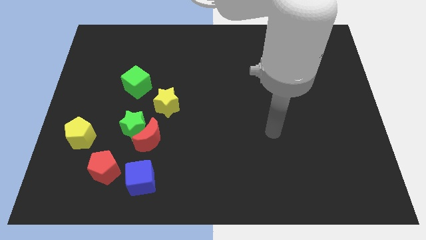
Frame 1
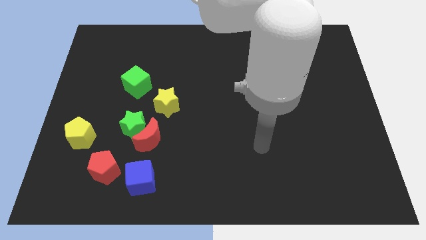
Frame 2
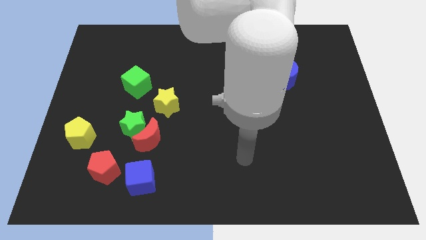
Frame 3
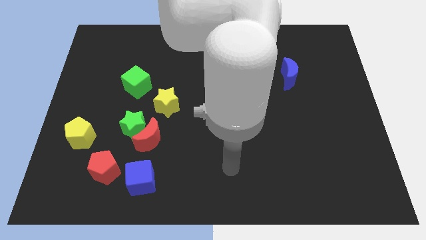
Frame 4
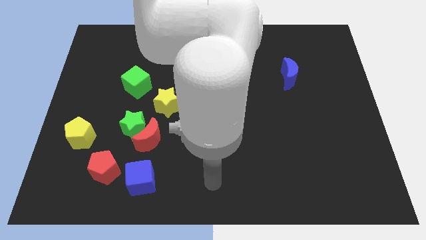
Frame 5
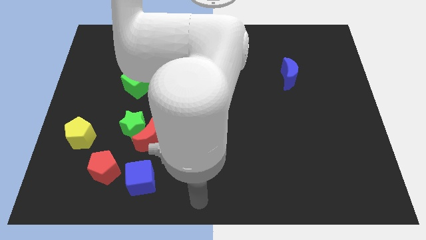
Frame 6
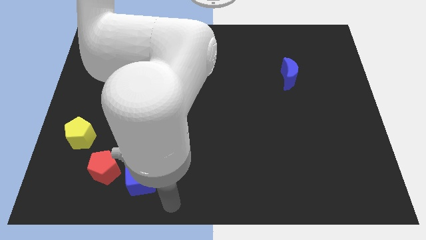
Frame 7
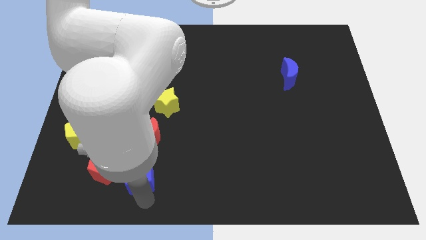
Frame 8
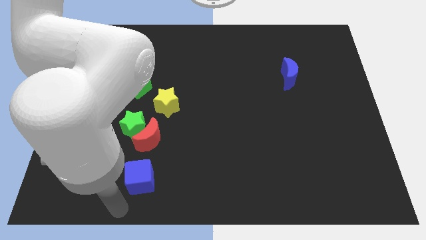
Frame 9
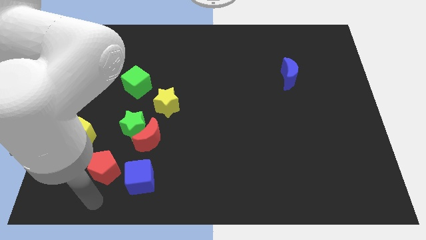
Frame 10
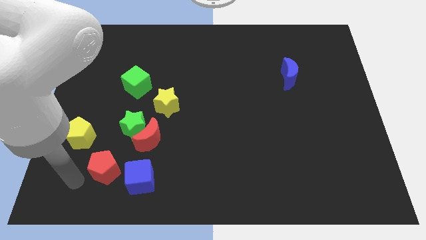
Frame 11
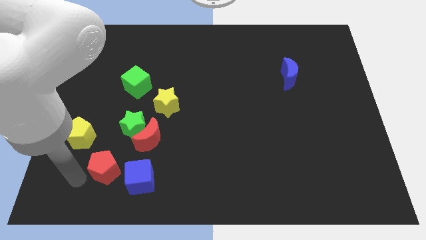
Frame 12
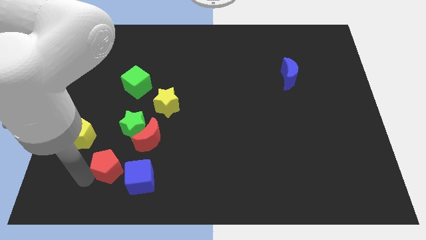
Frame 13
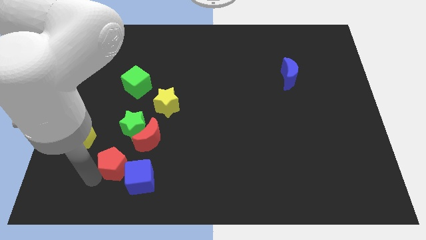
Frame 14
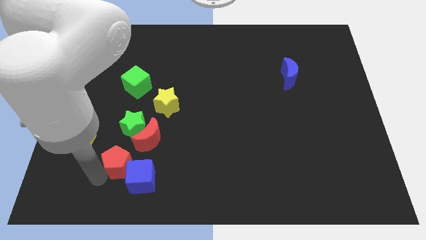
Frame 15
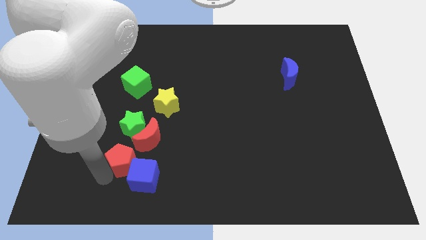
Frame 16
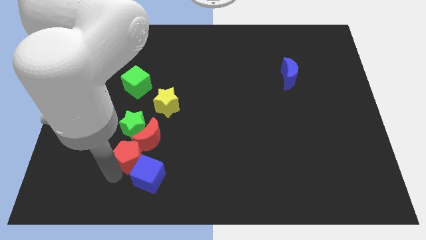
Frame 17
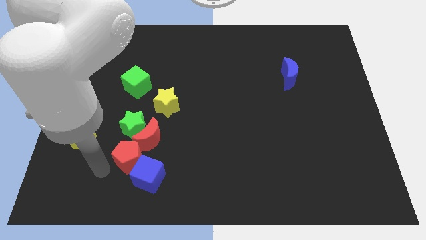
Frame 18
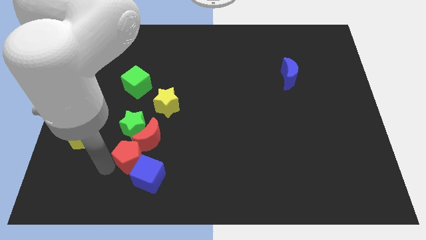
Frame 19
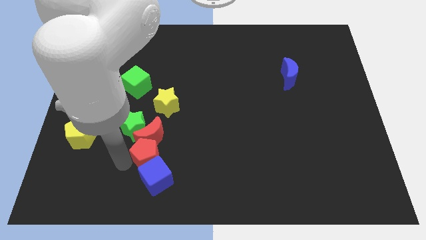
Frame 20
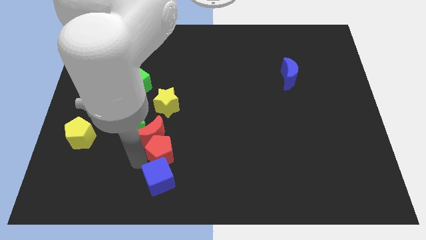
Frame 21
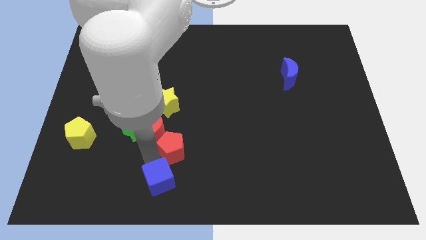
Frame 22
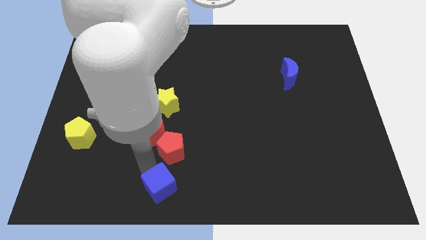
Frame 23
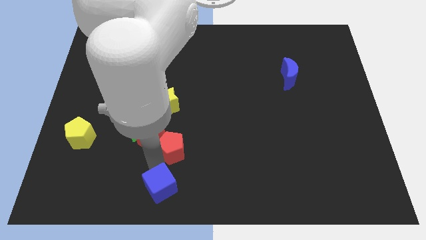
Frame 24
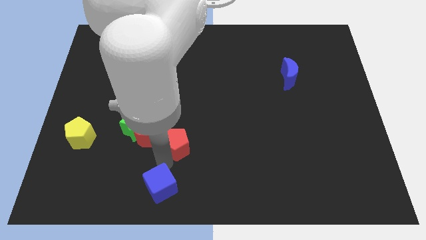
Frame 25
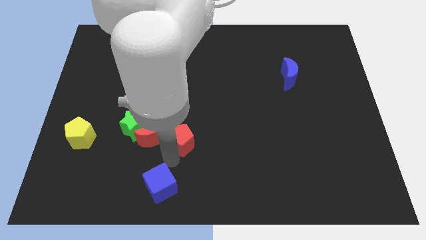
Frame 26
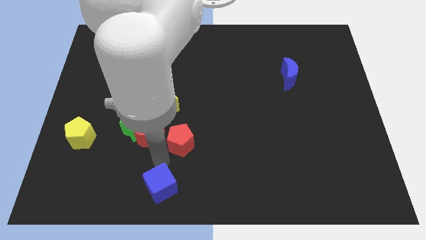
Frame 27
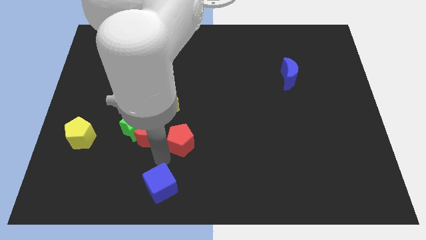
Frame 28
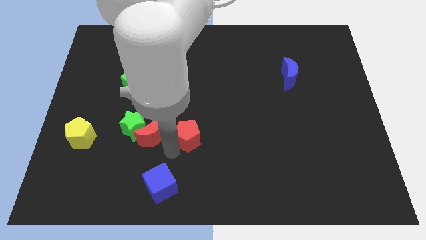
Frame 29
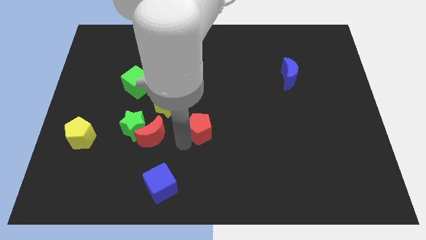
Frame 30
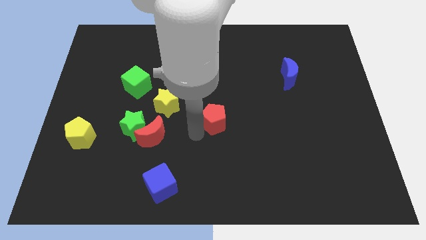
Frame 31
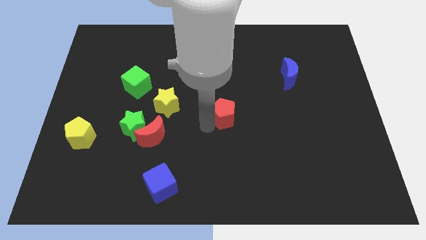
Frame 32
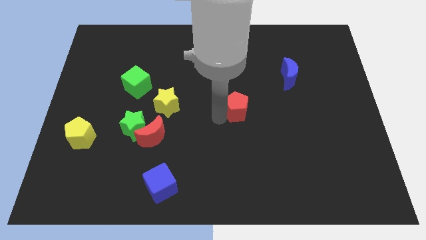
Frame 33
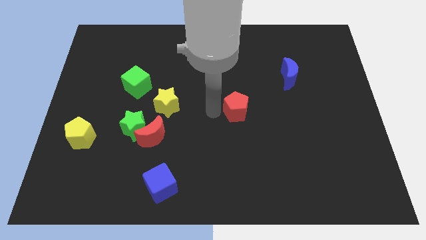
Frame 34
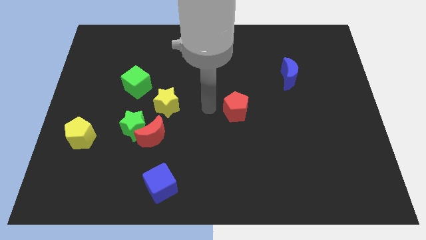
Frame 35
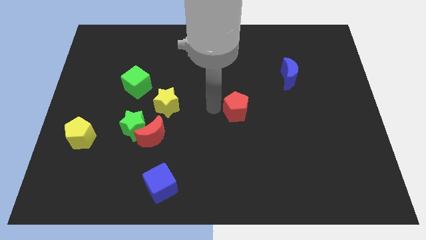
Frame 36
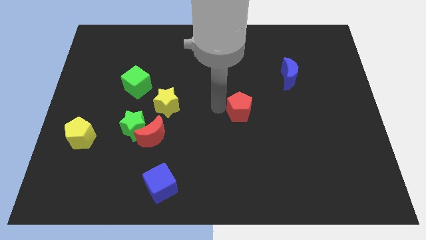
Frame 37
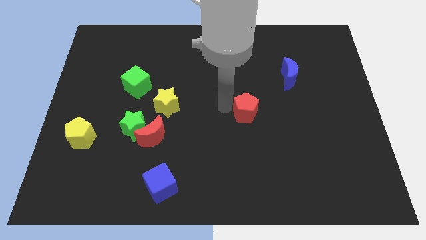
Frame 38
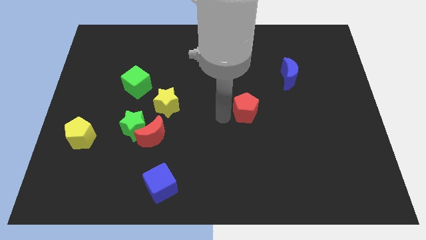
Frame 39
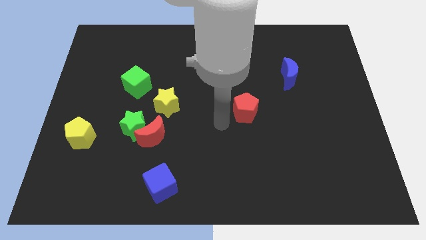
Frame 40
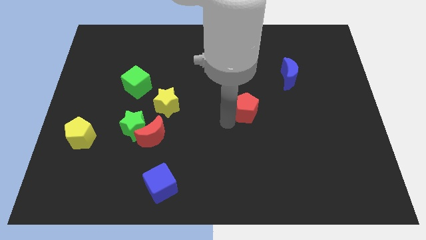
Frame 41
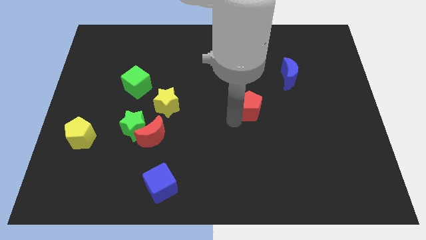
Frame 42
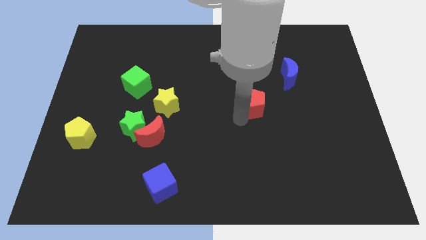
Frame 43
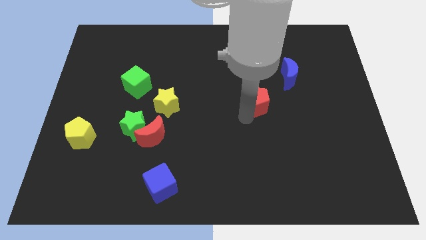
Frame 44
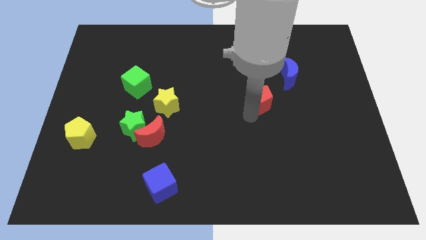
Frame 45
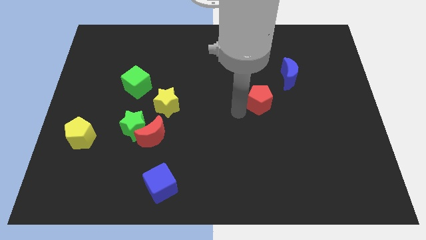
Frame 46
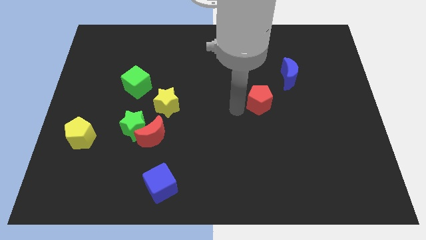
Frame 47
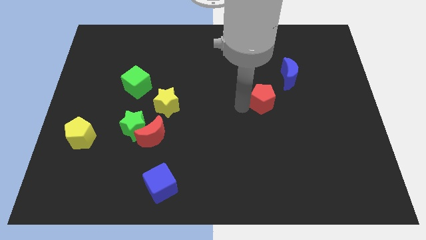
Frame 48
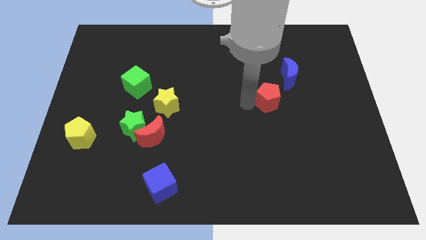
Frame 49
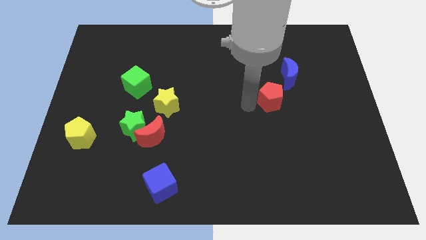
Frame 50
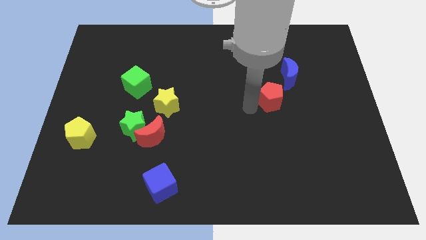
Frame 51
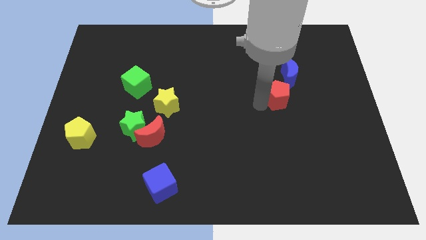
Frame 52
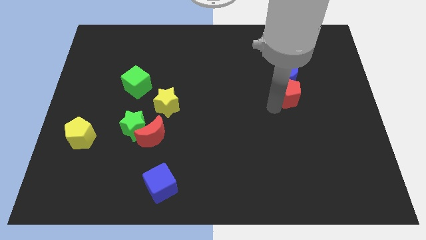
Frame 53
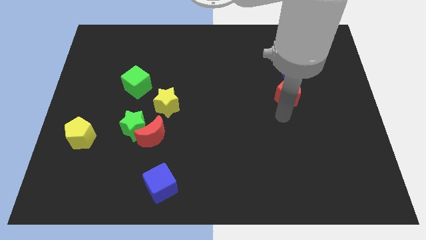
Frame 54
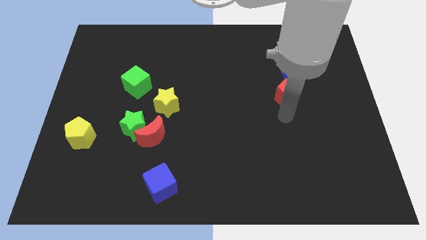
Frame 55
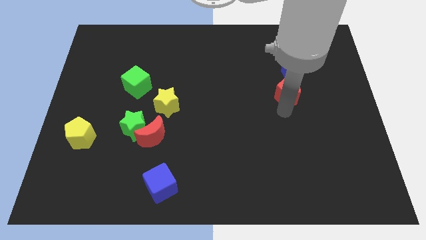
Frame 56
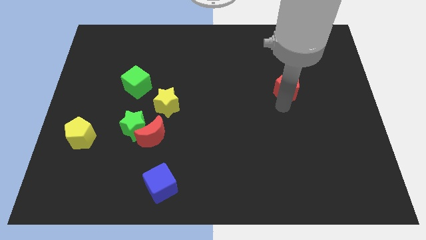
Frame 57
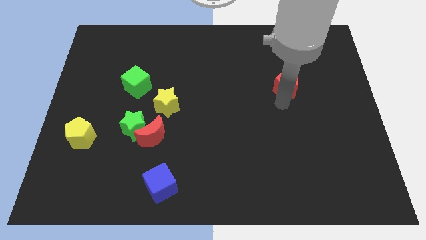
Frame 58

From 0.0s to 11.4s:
put the red pentagon towards the blue moon

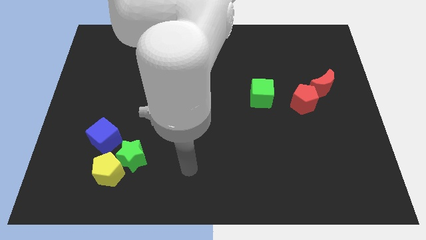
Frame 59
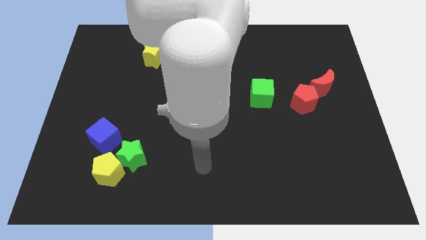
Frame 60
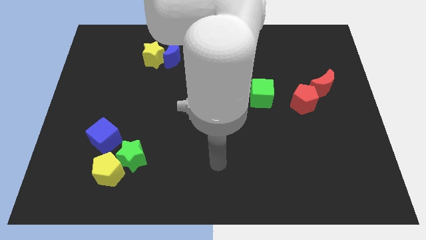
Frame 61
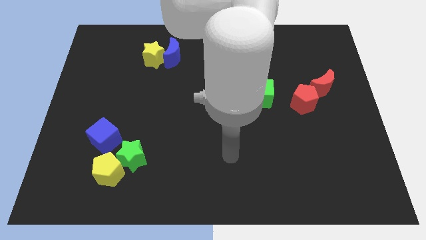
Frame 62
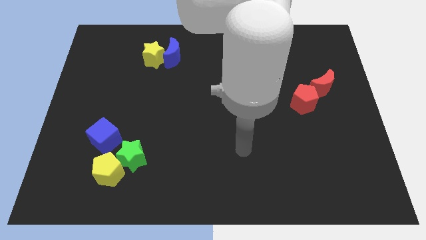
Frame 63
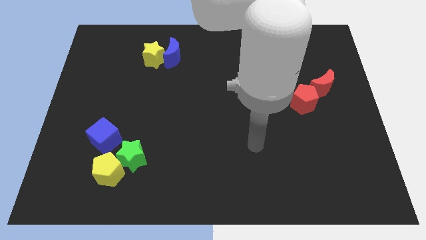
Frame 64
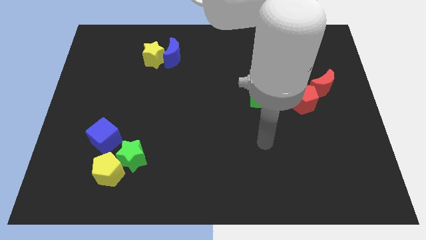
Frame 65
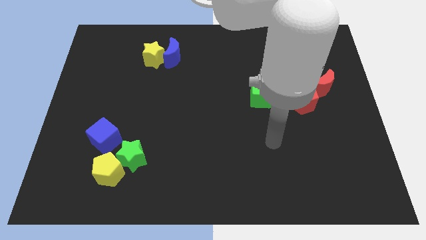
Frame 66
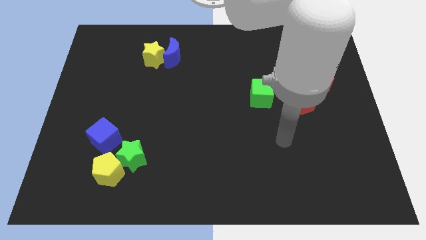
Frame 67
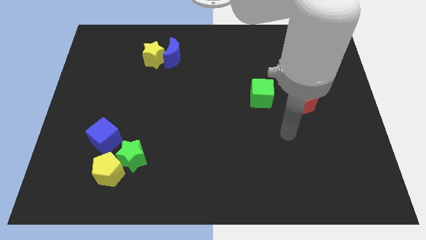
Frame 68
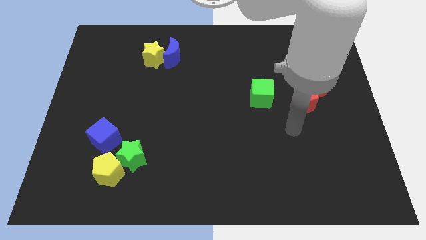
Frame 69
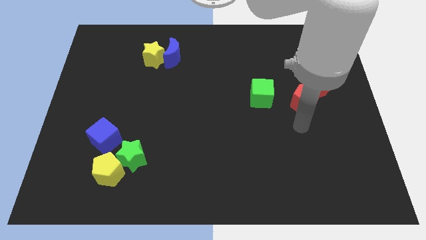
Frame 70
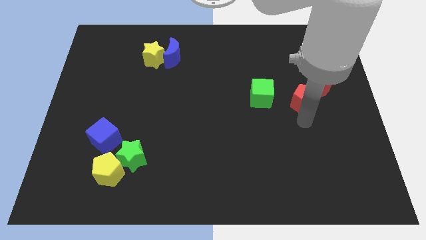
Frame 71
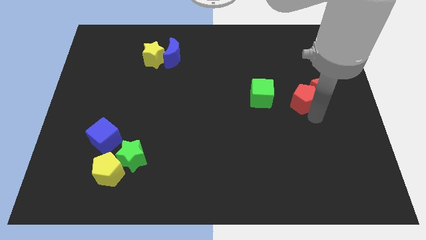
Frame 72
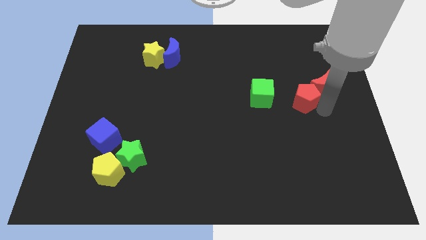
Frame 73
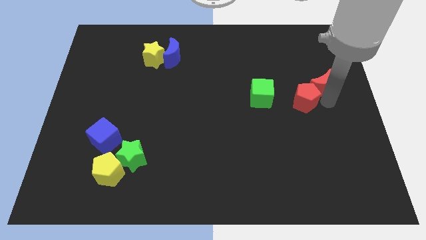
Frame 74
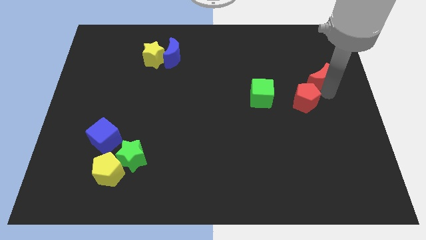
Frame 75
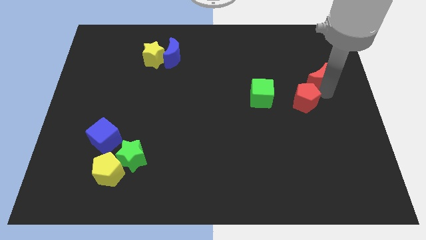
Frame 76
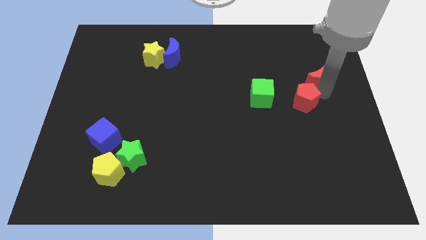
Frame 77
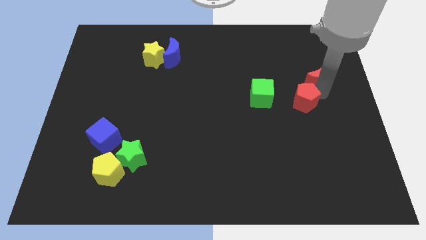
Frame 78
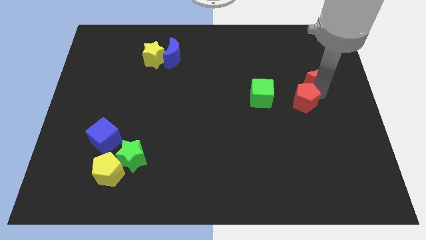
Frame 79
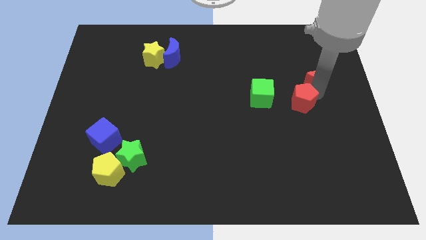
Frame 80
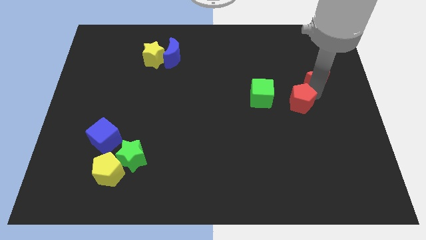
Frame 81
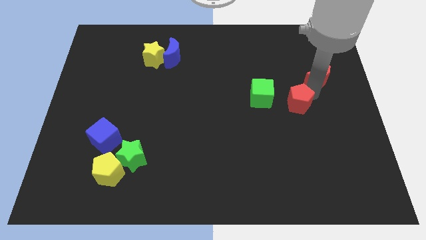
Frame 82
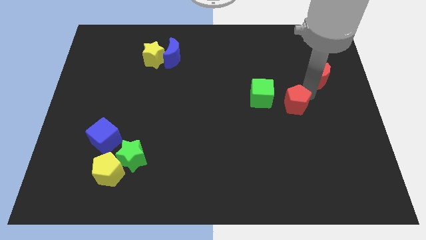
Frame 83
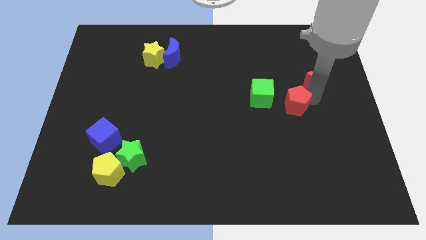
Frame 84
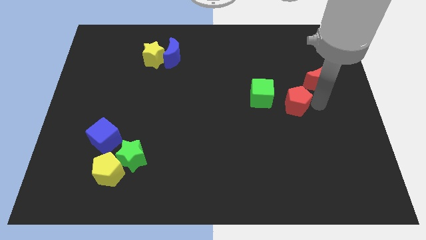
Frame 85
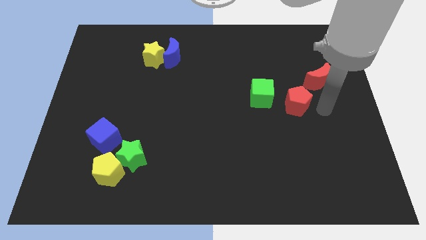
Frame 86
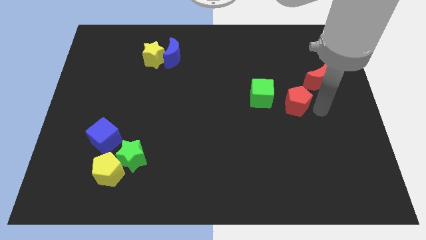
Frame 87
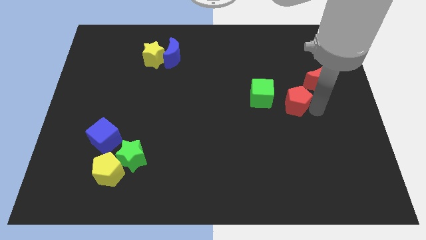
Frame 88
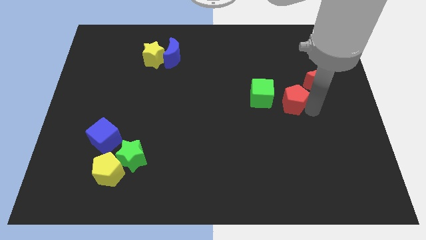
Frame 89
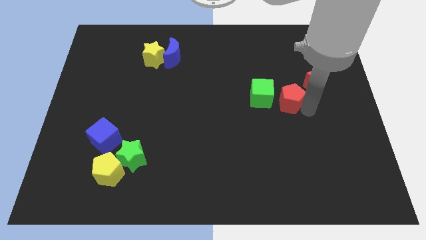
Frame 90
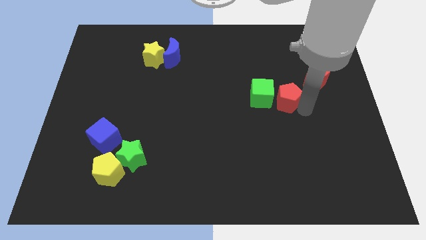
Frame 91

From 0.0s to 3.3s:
push the red pentagon next to the green cube
